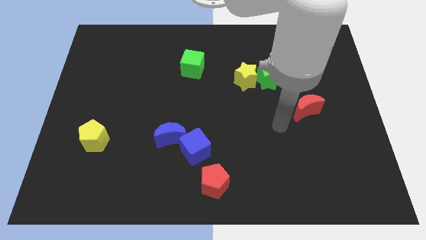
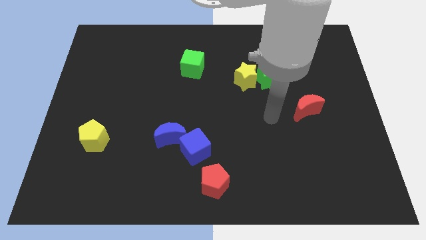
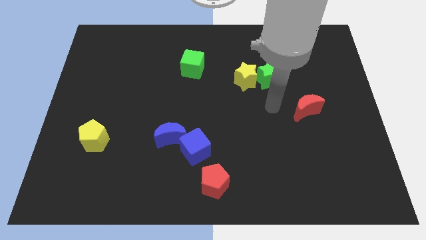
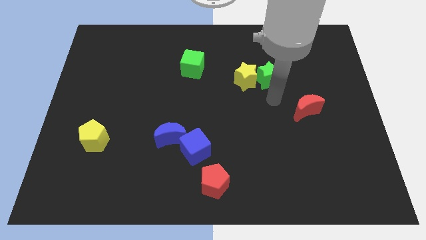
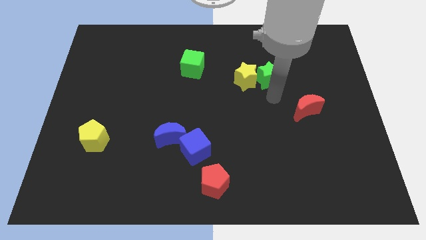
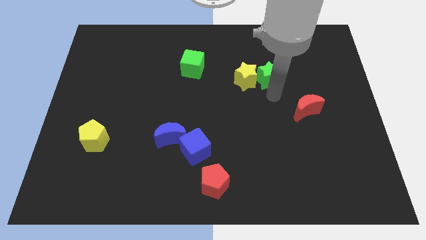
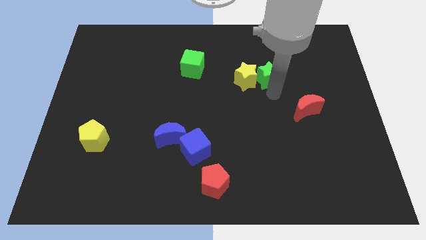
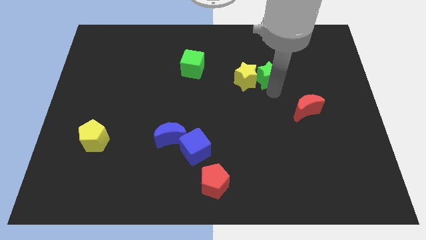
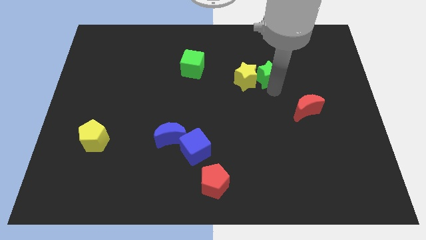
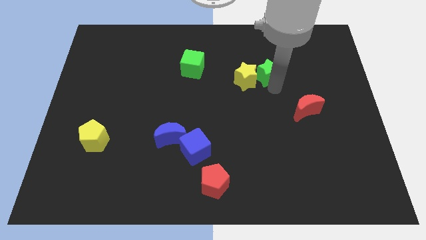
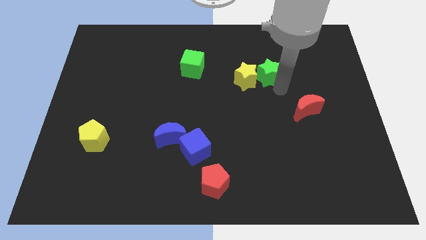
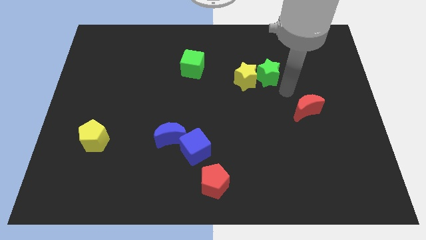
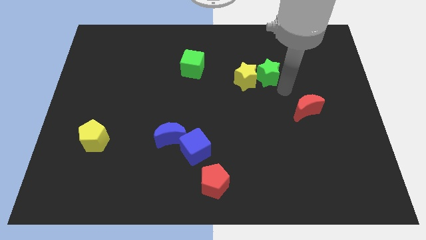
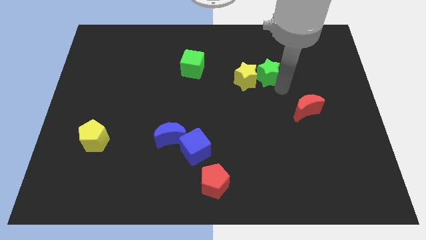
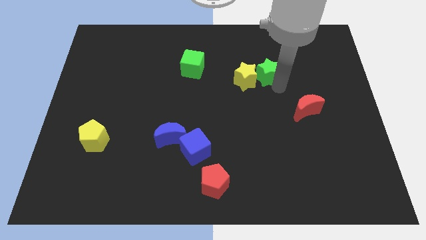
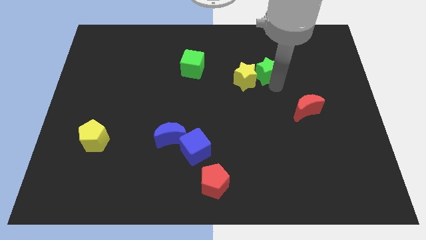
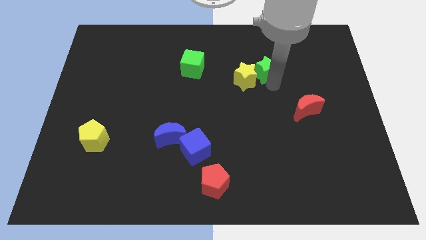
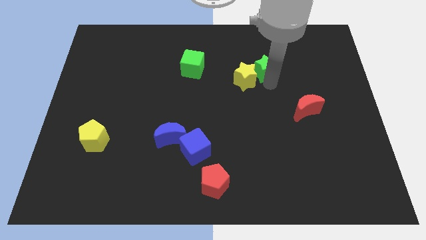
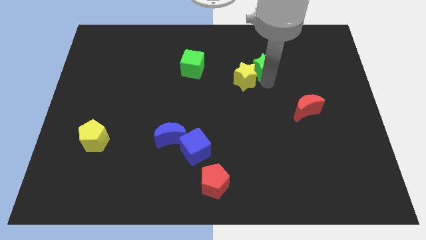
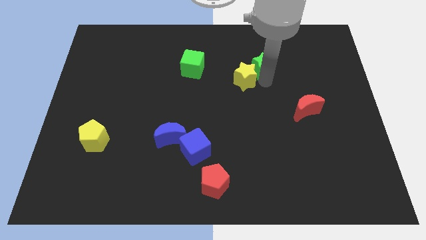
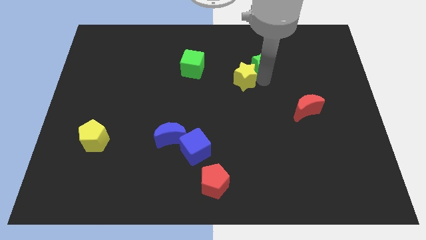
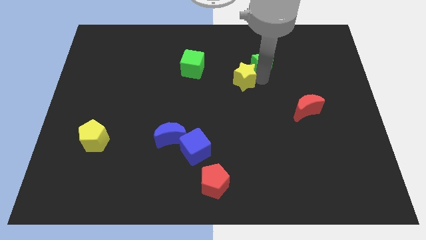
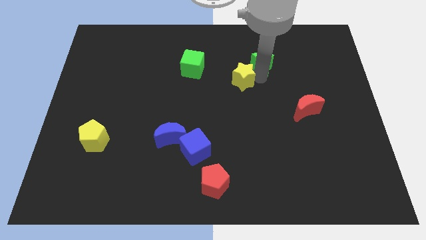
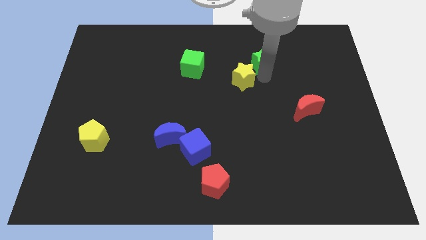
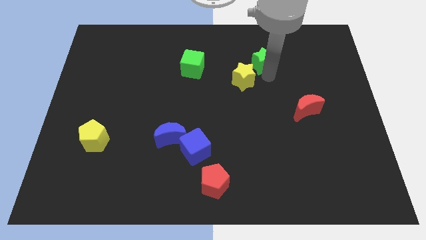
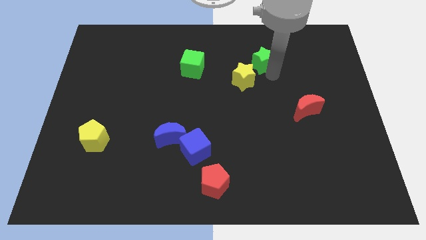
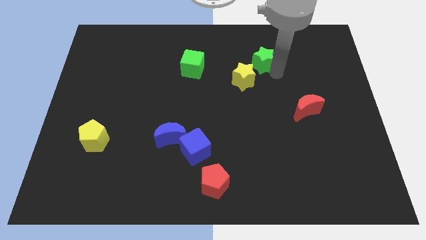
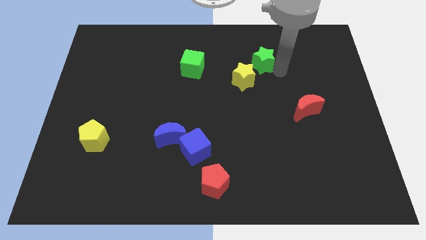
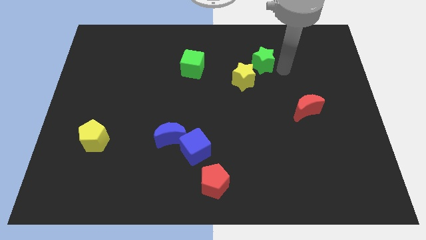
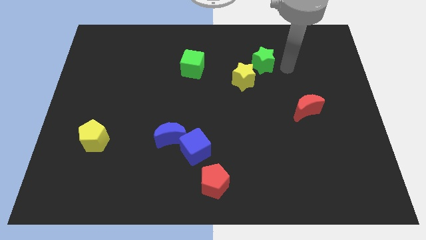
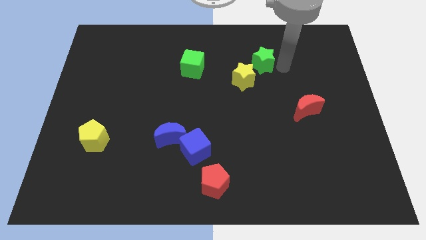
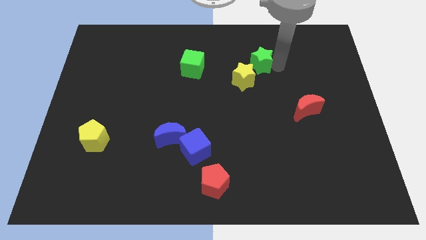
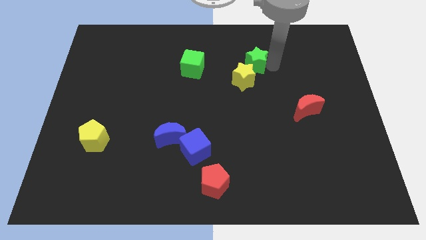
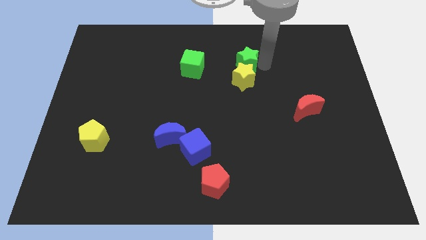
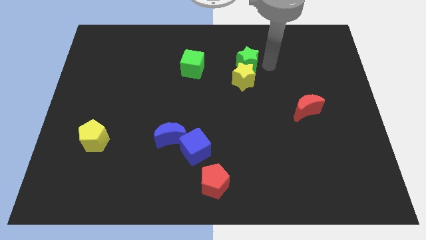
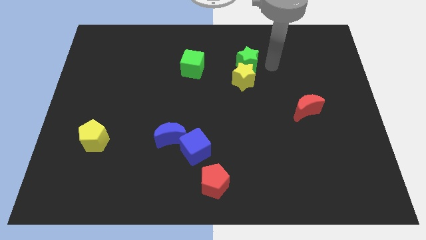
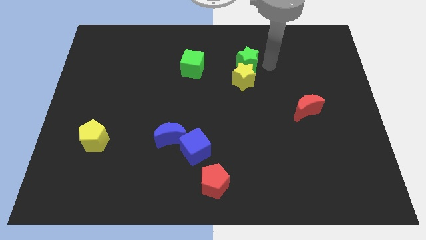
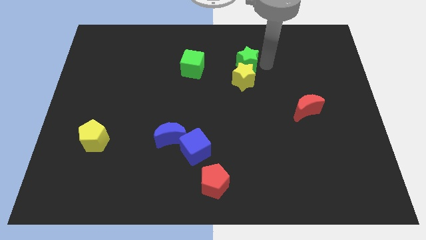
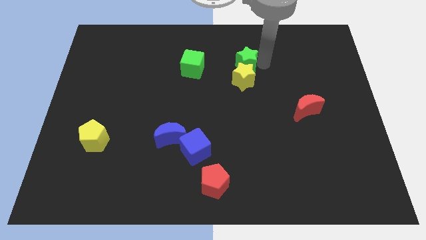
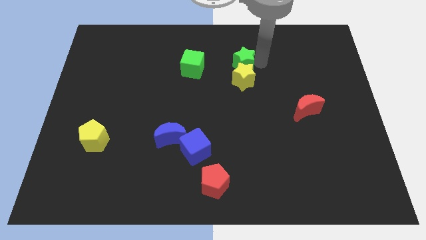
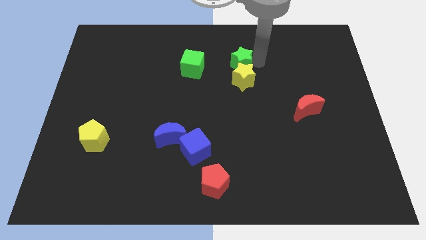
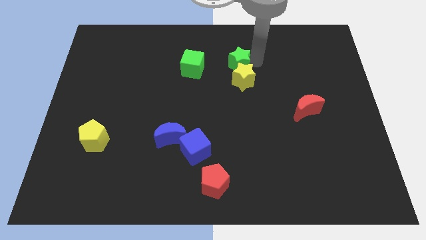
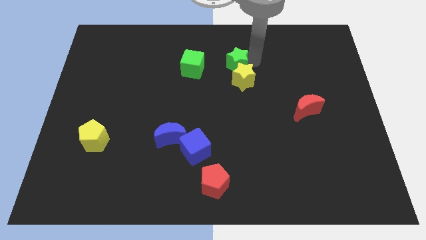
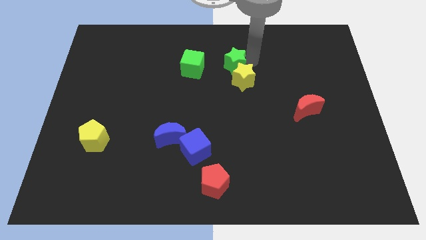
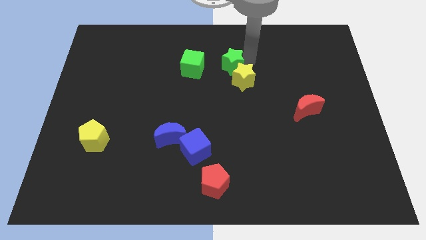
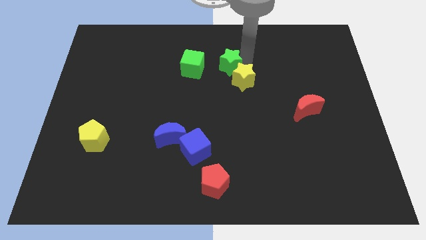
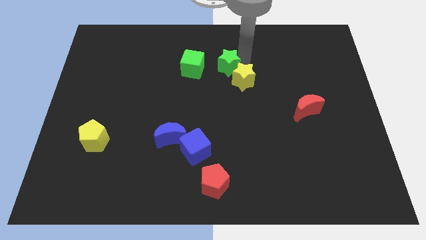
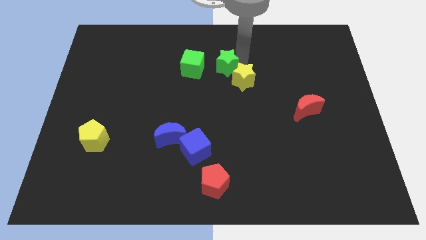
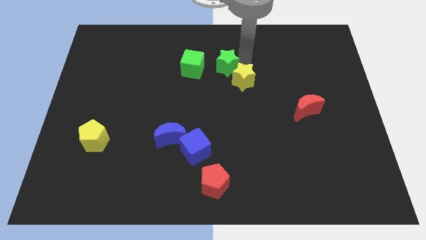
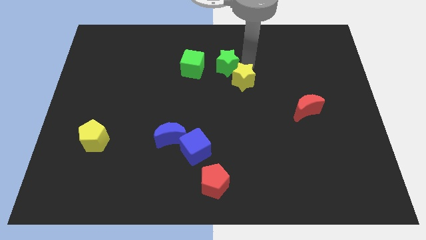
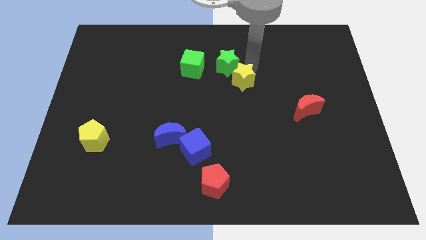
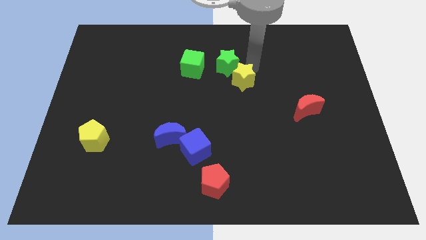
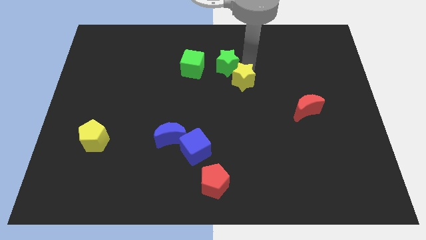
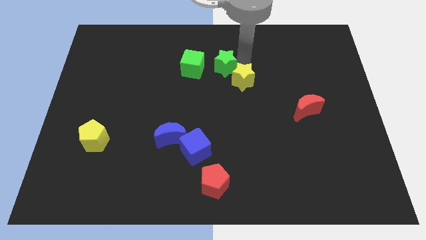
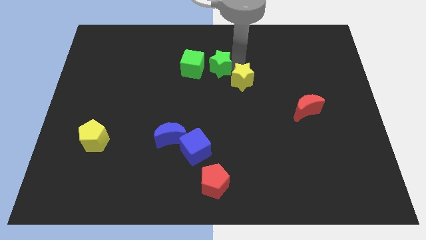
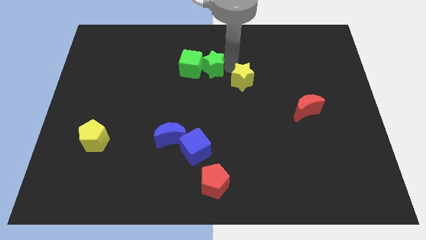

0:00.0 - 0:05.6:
push the green star towards the green cube

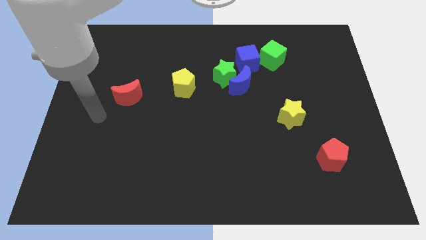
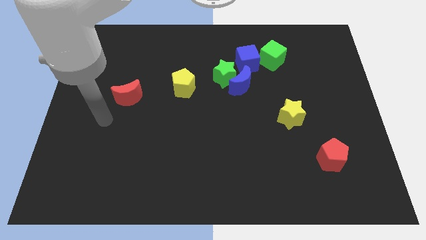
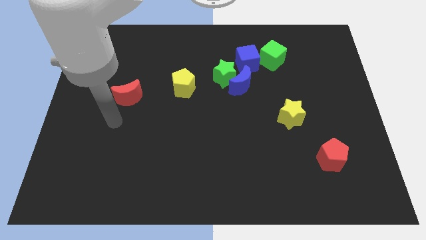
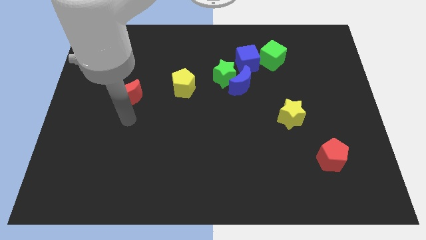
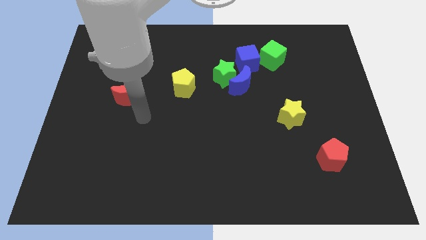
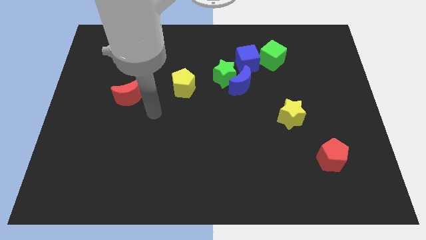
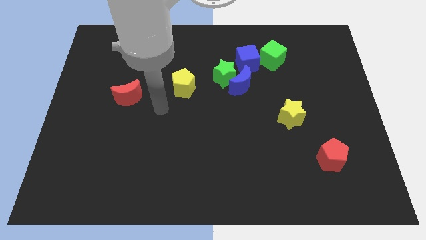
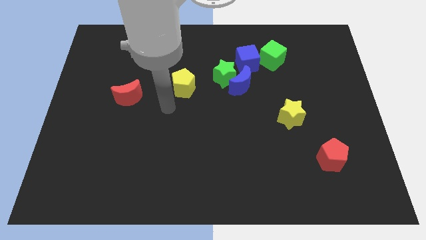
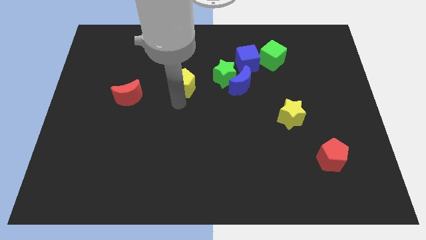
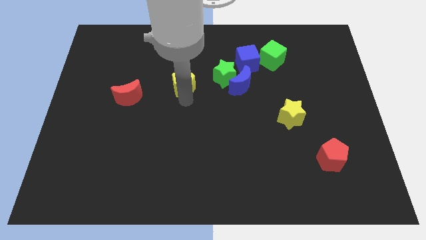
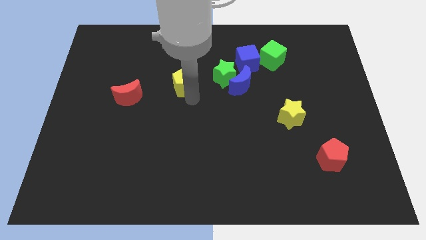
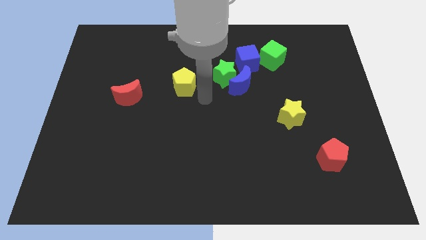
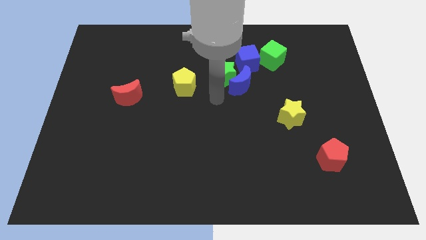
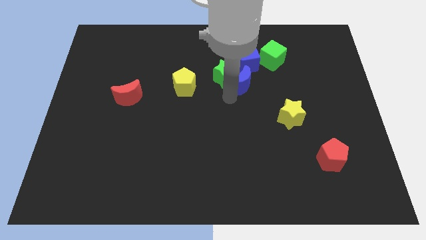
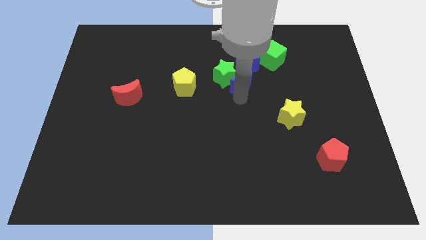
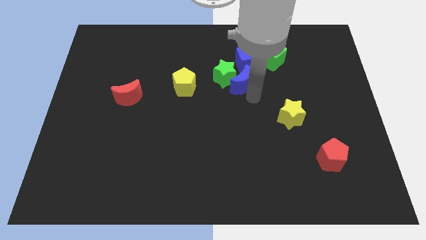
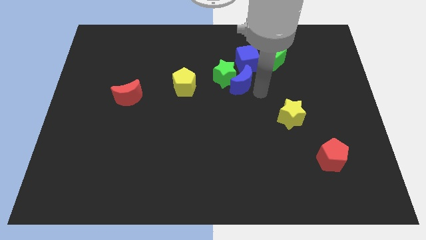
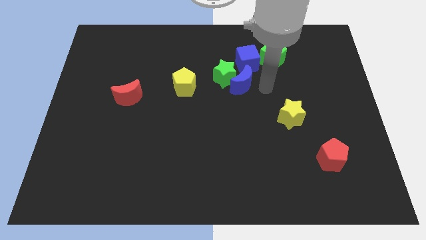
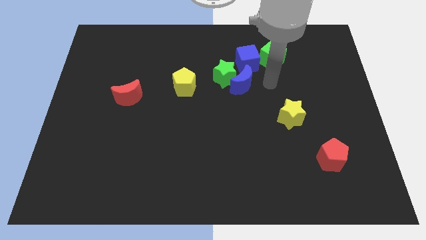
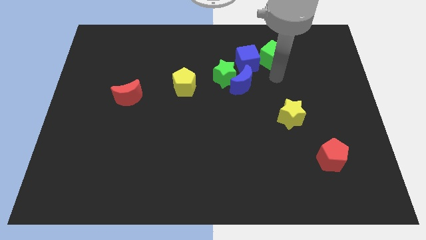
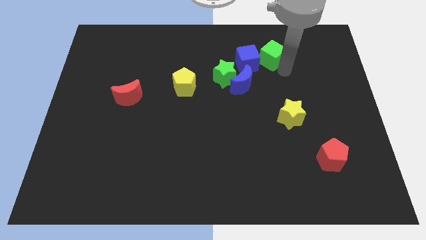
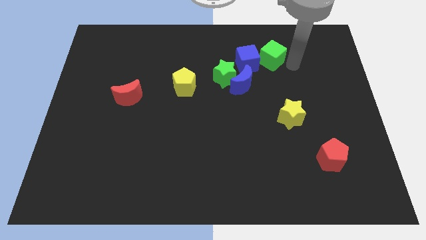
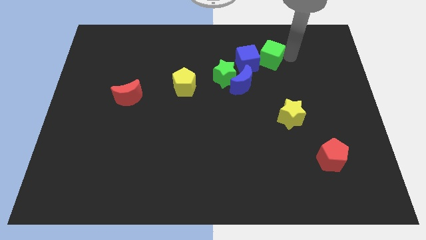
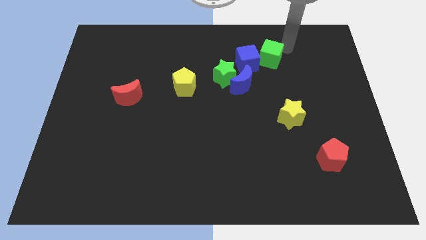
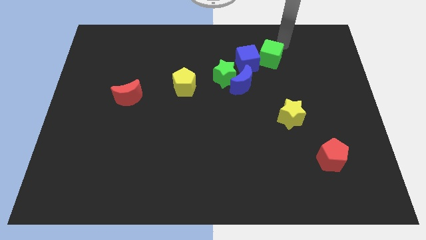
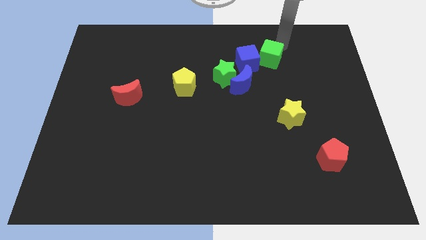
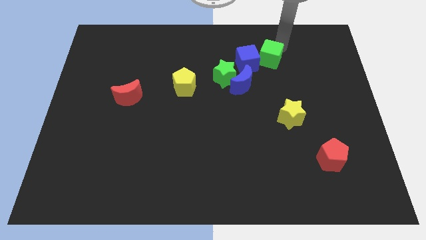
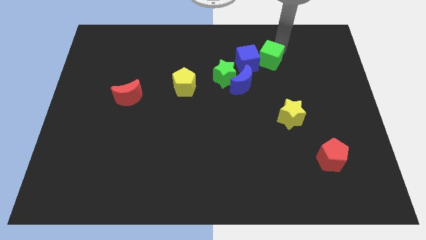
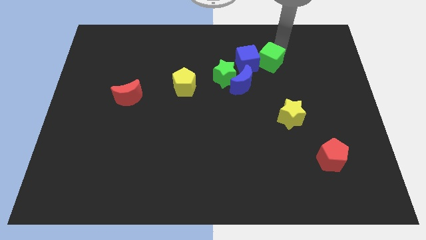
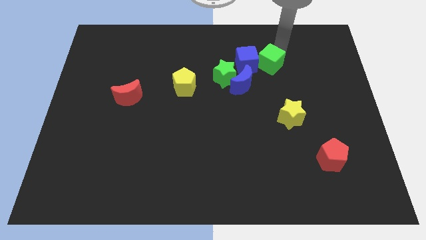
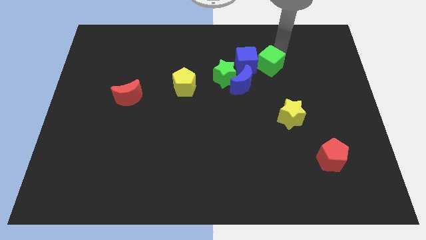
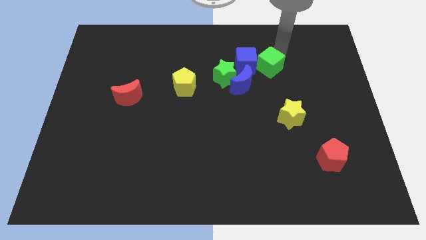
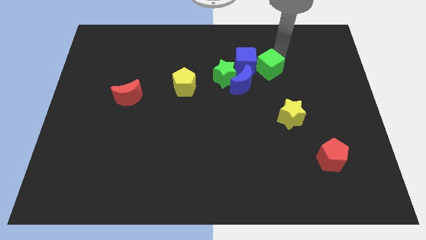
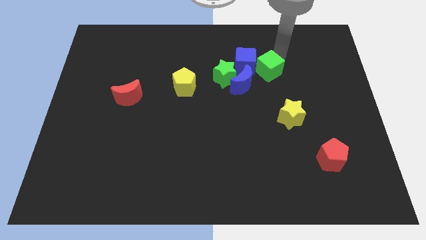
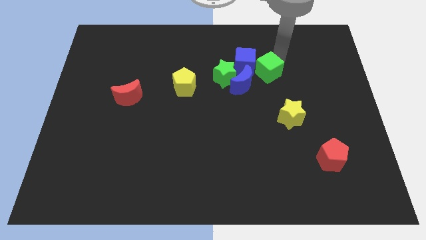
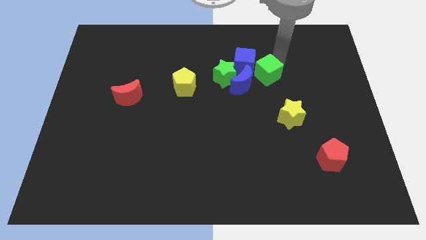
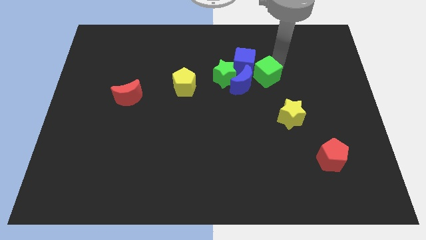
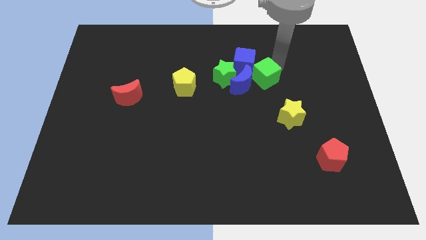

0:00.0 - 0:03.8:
push the green cube to the blue moon
